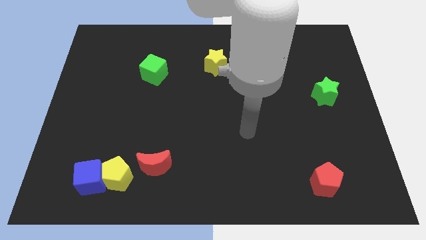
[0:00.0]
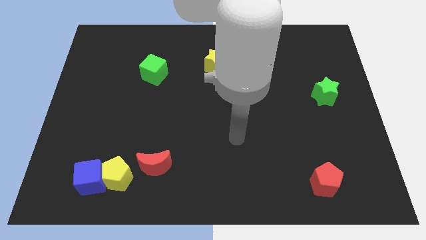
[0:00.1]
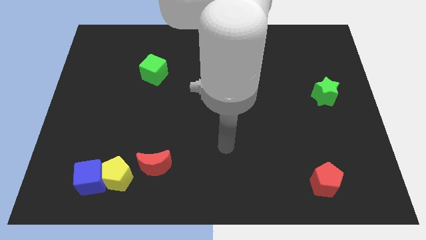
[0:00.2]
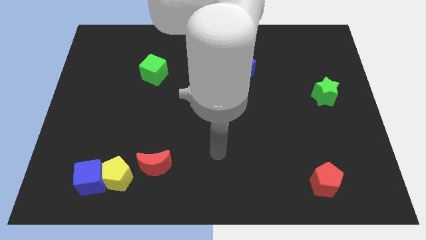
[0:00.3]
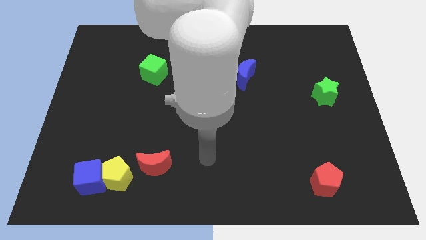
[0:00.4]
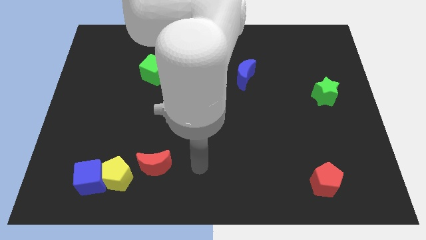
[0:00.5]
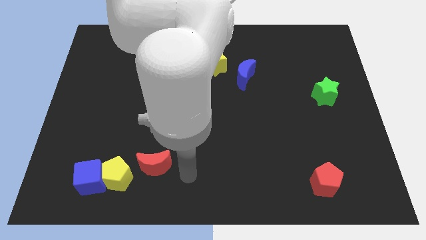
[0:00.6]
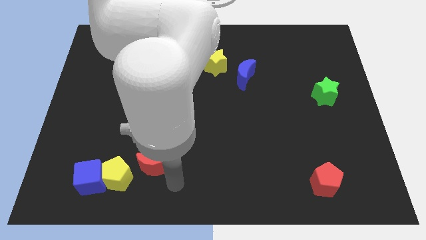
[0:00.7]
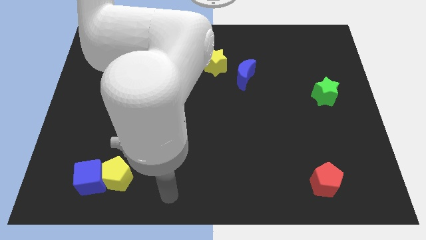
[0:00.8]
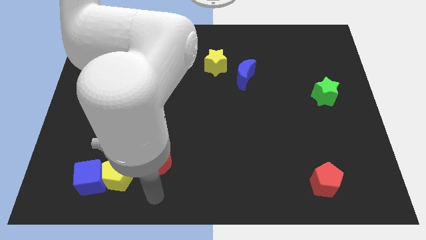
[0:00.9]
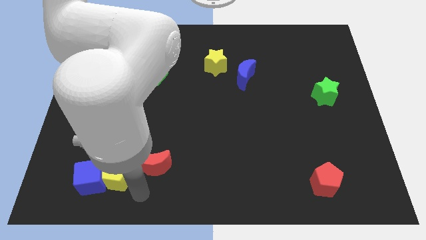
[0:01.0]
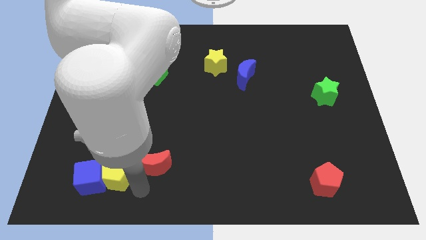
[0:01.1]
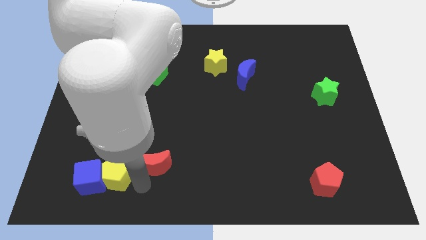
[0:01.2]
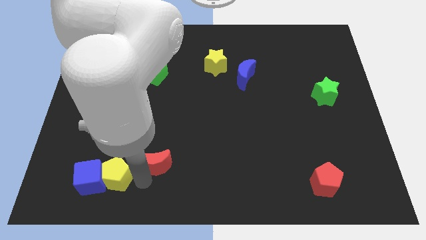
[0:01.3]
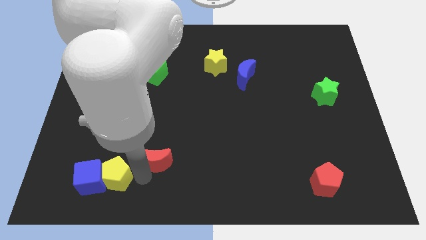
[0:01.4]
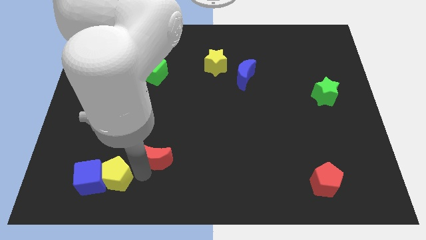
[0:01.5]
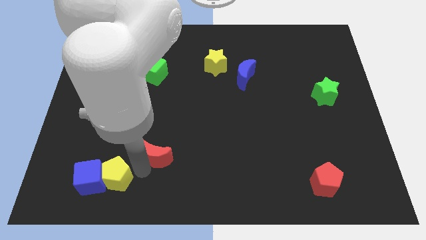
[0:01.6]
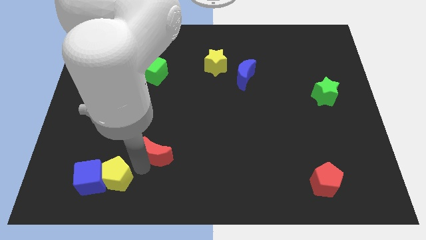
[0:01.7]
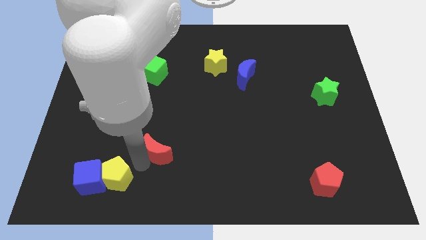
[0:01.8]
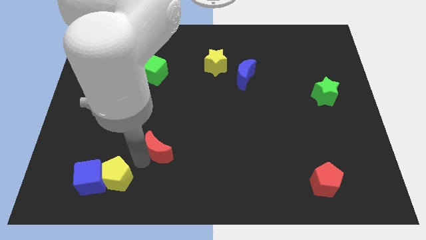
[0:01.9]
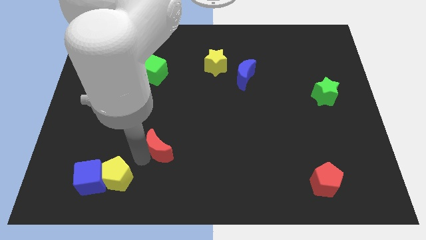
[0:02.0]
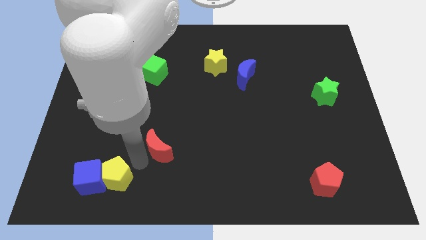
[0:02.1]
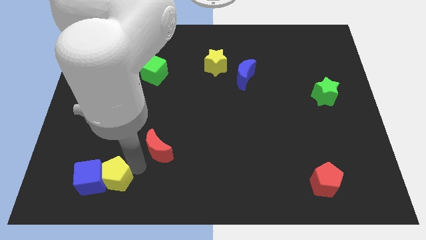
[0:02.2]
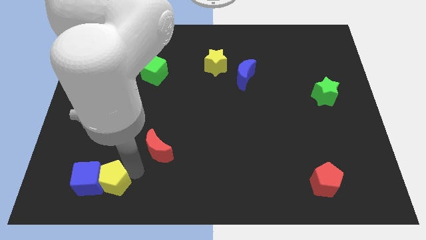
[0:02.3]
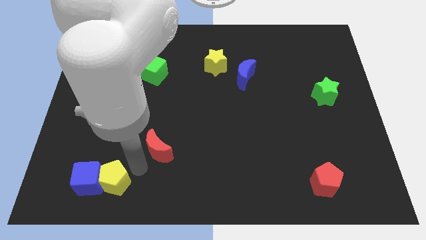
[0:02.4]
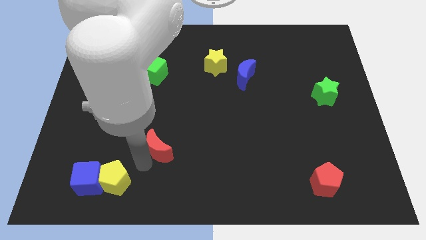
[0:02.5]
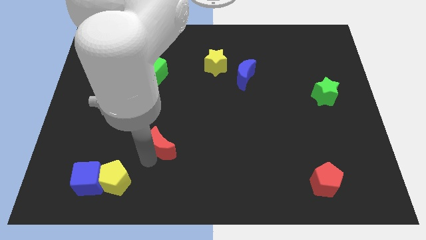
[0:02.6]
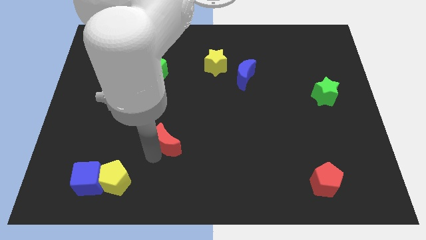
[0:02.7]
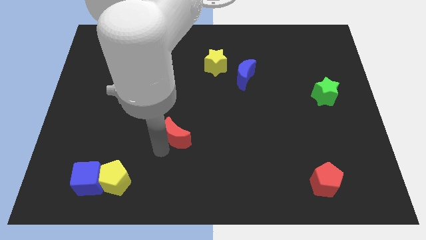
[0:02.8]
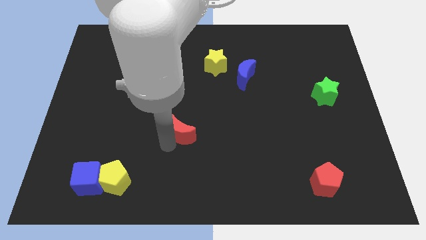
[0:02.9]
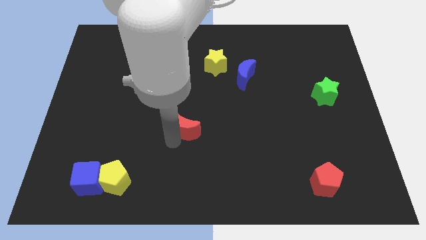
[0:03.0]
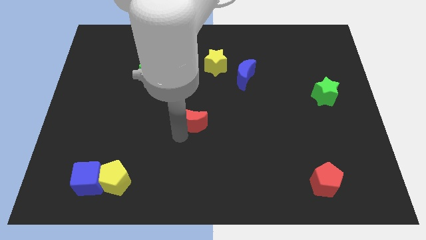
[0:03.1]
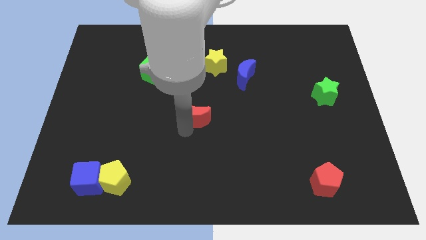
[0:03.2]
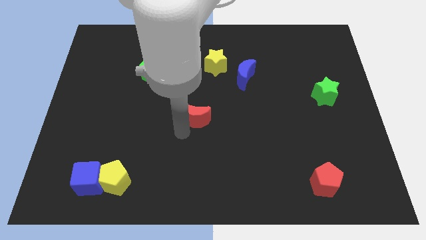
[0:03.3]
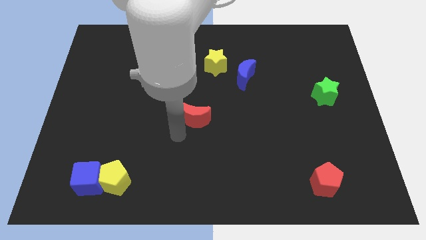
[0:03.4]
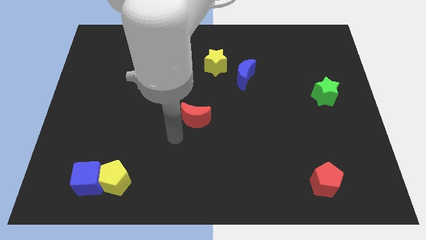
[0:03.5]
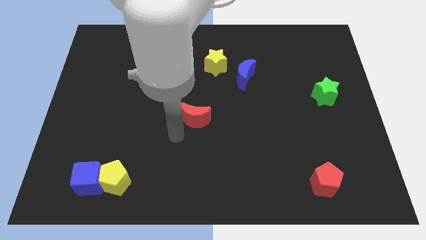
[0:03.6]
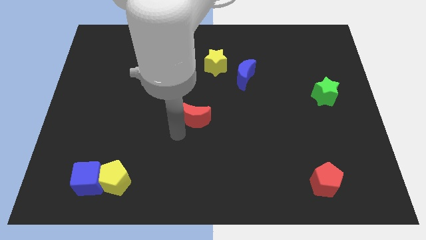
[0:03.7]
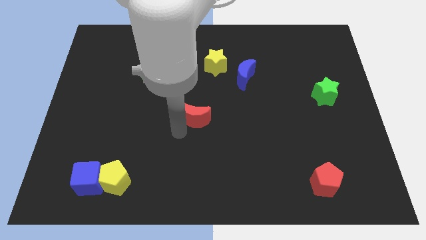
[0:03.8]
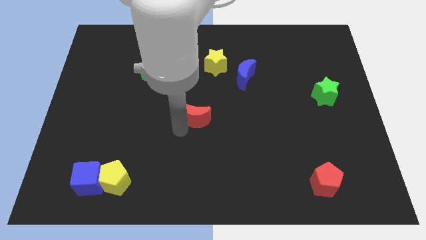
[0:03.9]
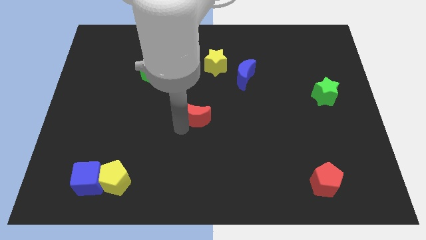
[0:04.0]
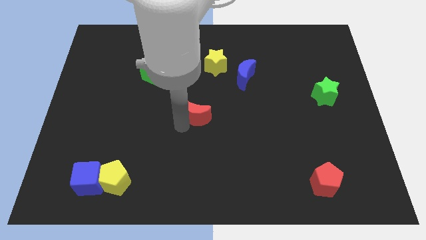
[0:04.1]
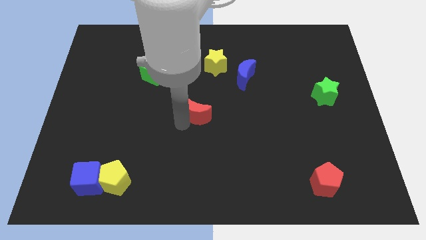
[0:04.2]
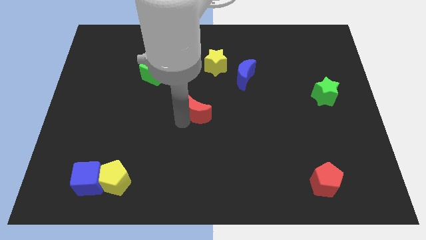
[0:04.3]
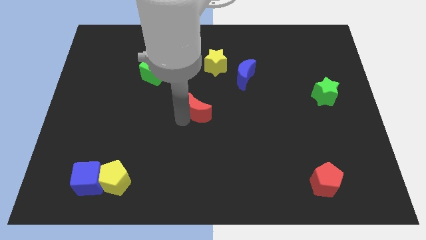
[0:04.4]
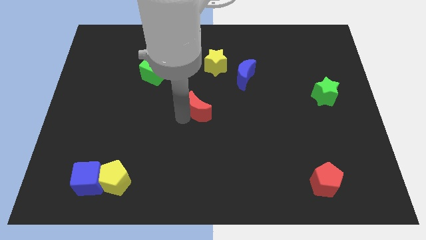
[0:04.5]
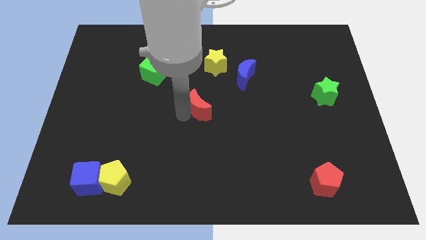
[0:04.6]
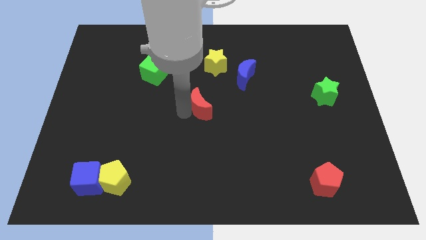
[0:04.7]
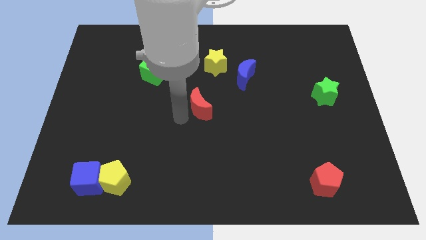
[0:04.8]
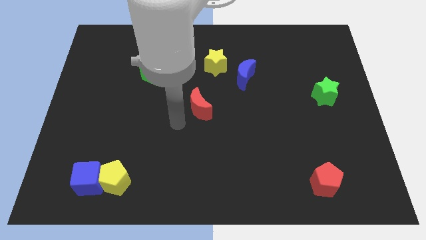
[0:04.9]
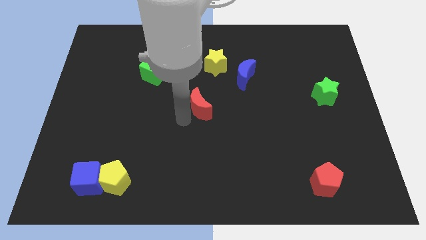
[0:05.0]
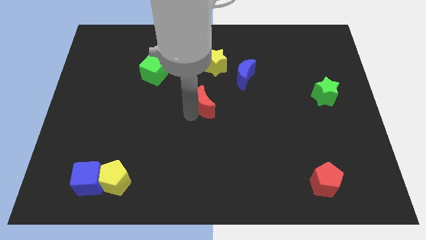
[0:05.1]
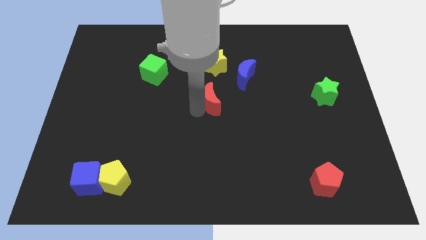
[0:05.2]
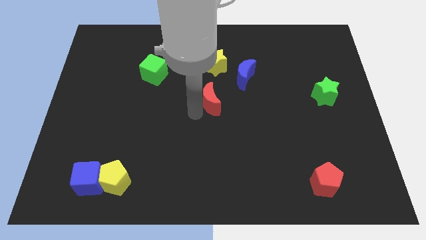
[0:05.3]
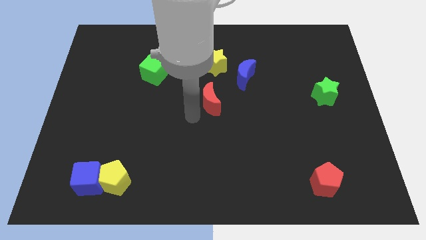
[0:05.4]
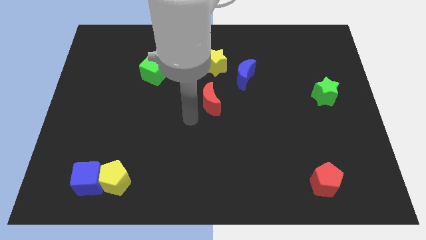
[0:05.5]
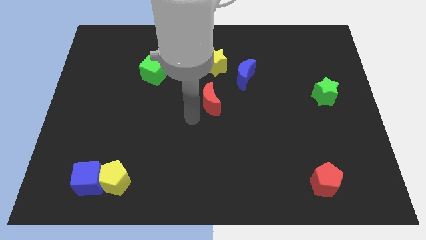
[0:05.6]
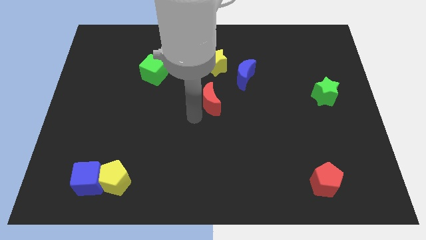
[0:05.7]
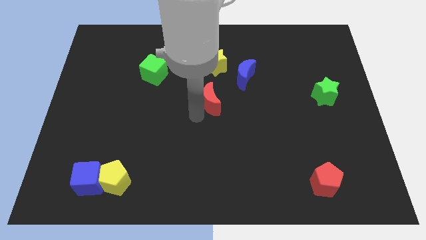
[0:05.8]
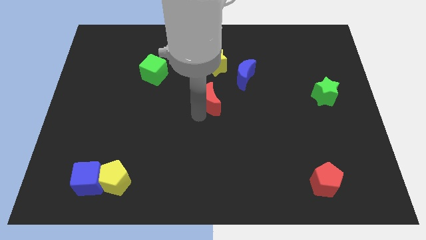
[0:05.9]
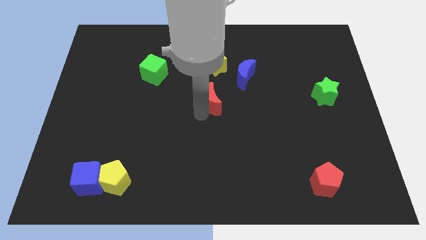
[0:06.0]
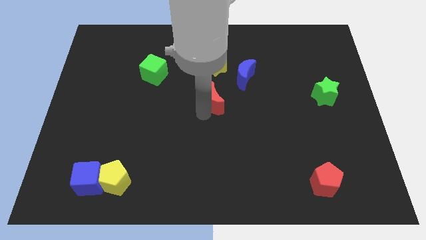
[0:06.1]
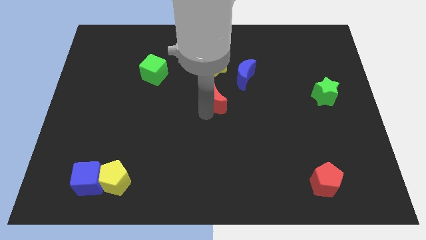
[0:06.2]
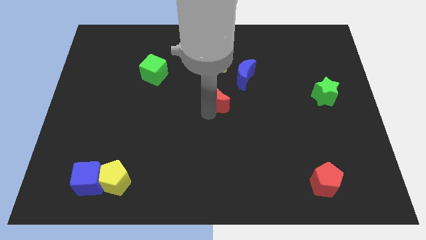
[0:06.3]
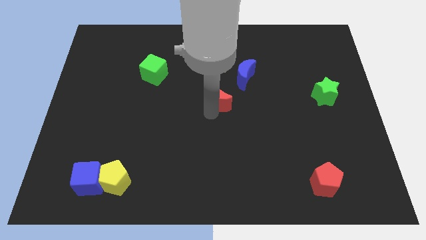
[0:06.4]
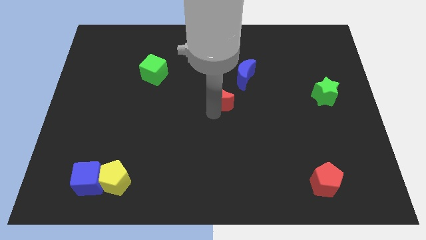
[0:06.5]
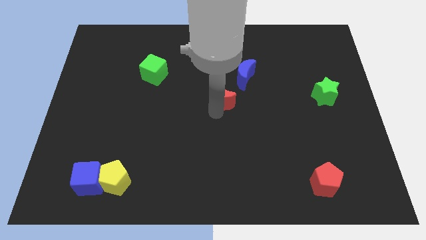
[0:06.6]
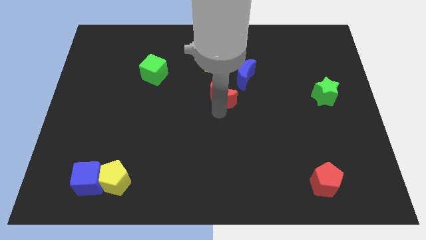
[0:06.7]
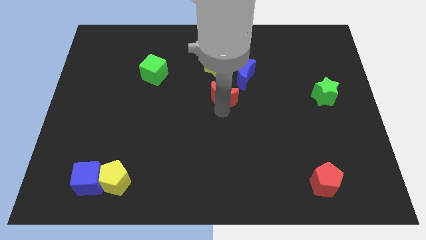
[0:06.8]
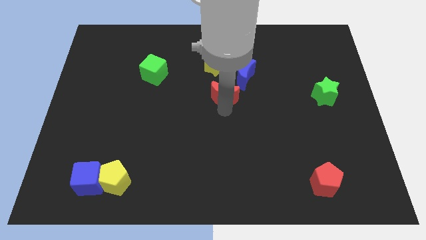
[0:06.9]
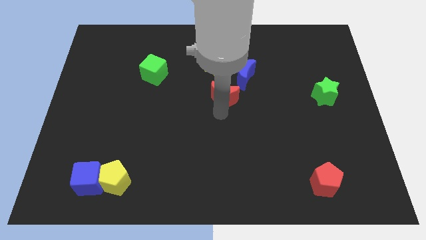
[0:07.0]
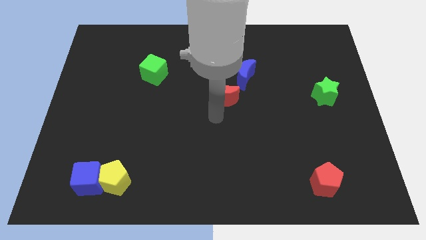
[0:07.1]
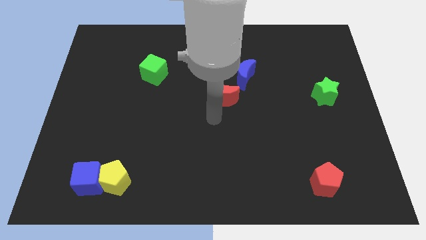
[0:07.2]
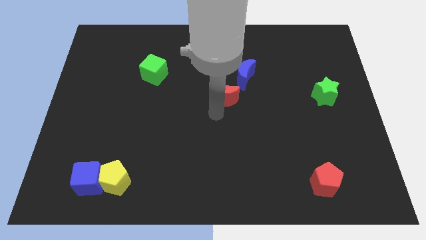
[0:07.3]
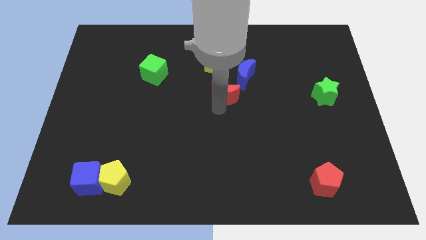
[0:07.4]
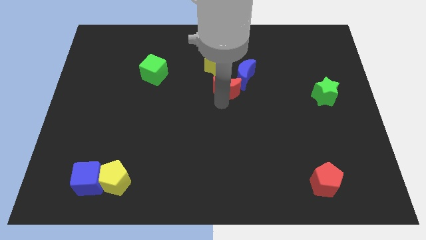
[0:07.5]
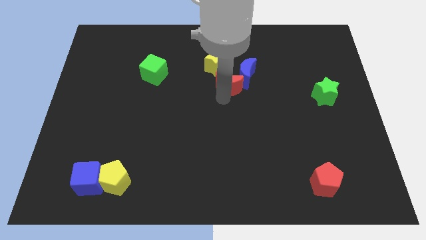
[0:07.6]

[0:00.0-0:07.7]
slide the red moon to the blue moon

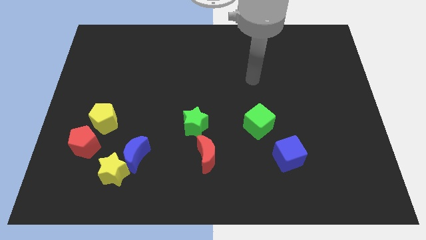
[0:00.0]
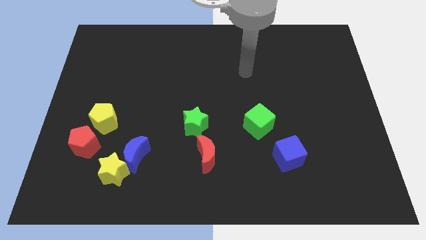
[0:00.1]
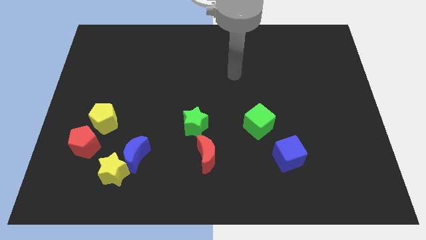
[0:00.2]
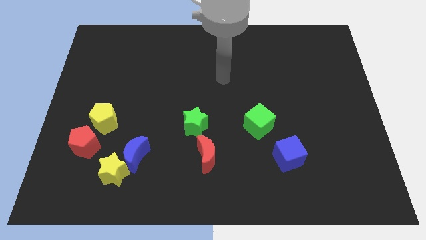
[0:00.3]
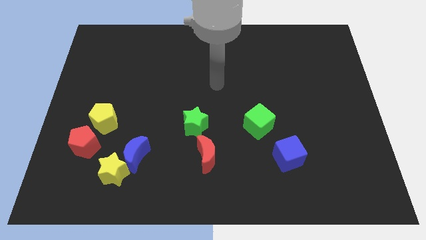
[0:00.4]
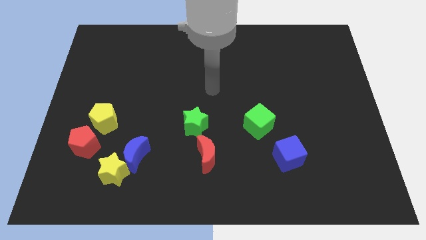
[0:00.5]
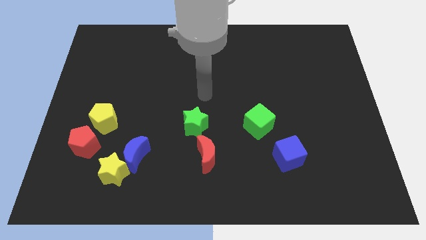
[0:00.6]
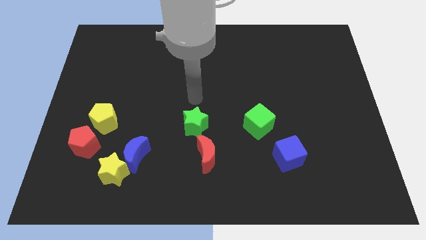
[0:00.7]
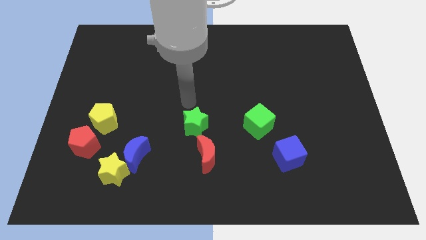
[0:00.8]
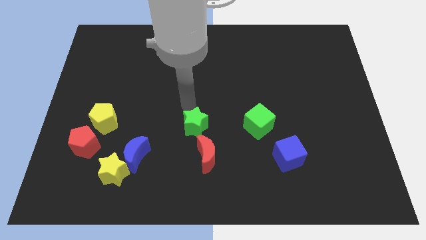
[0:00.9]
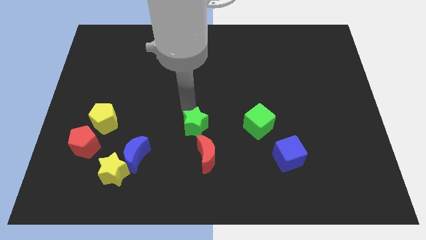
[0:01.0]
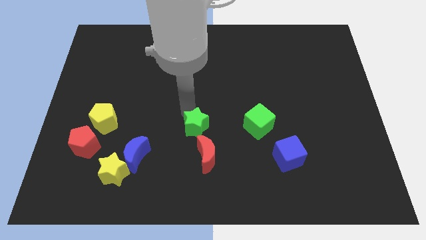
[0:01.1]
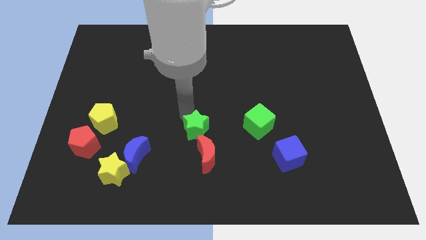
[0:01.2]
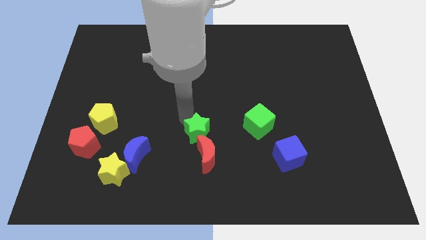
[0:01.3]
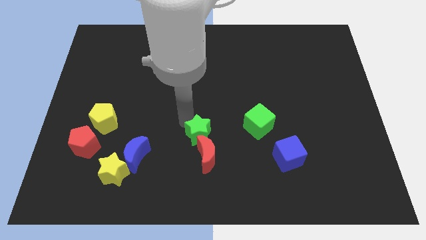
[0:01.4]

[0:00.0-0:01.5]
put the green star close to the red moon
